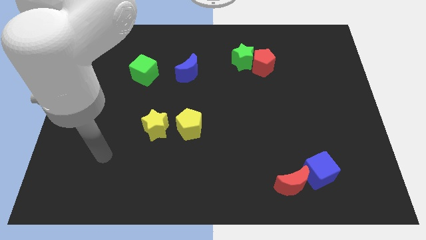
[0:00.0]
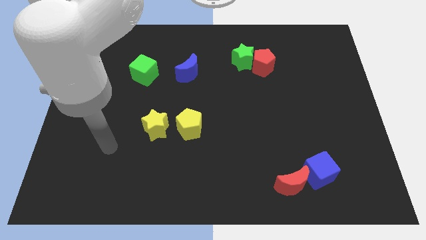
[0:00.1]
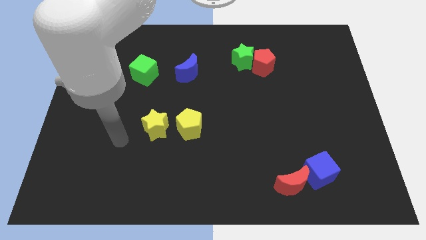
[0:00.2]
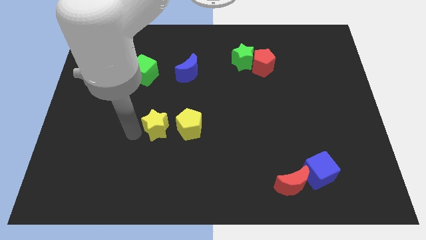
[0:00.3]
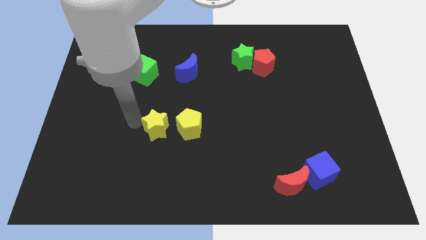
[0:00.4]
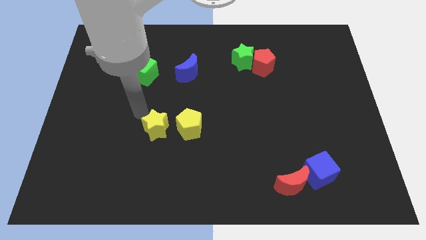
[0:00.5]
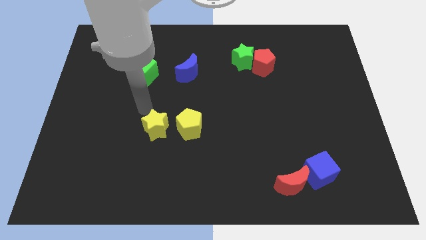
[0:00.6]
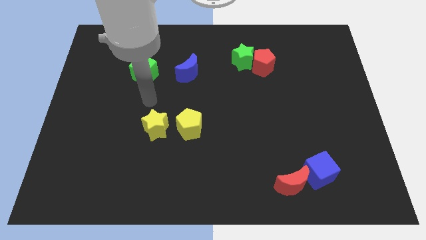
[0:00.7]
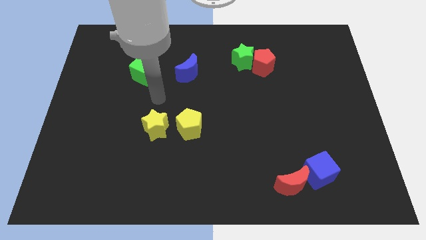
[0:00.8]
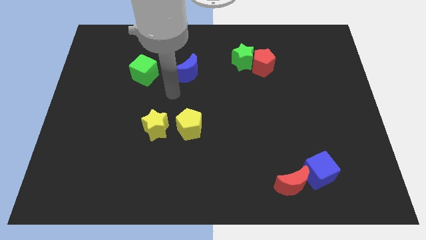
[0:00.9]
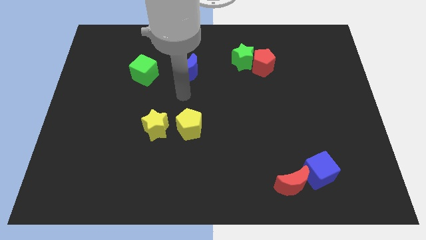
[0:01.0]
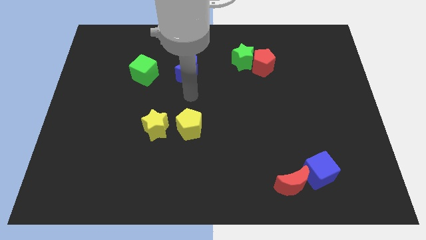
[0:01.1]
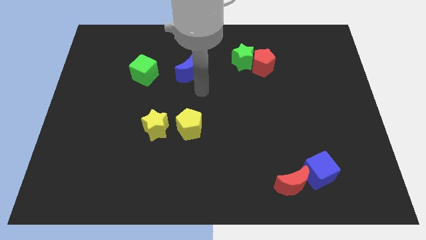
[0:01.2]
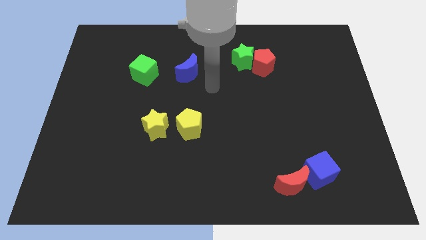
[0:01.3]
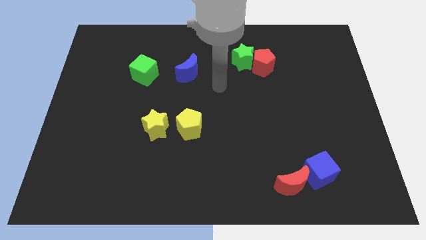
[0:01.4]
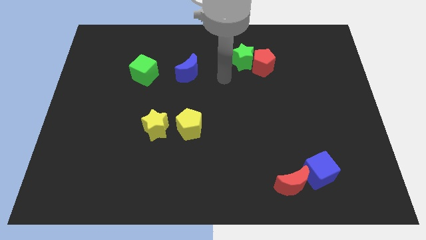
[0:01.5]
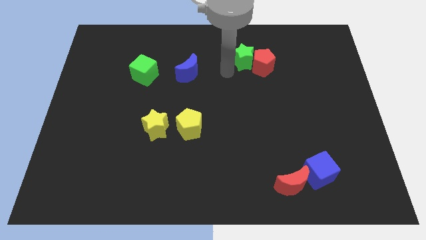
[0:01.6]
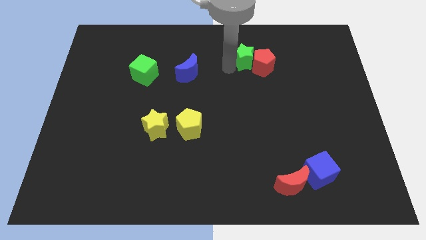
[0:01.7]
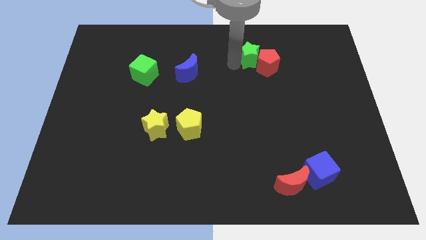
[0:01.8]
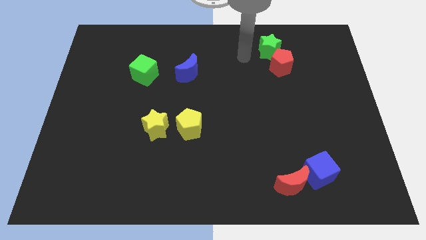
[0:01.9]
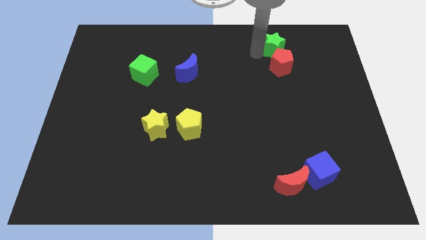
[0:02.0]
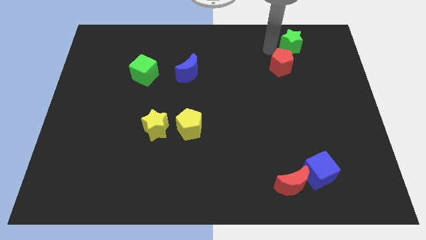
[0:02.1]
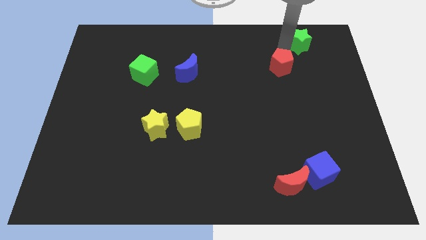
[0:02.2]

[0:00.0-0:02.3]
separate the red pentagon from the green star

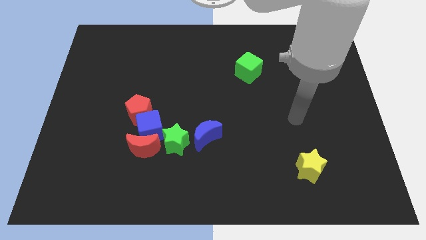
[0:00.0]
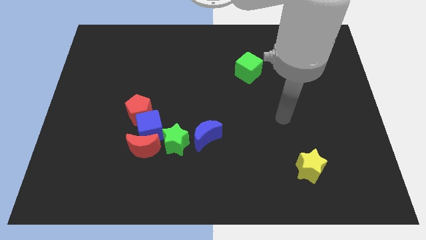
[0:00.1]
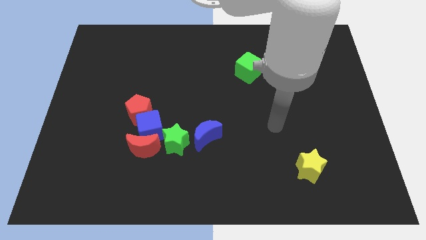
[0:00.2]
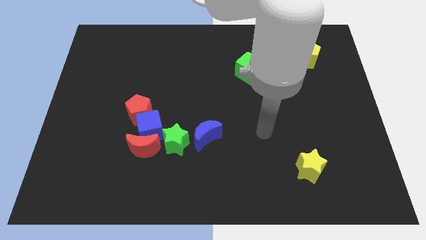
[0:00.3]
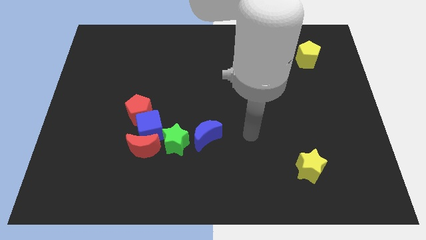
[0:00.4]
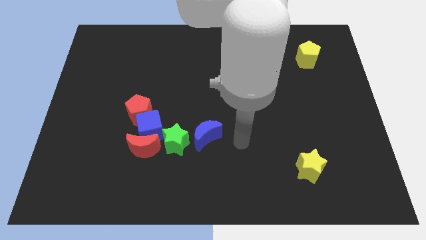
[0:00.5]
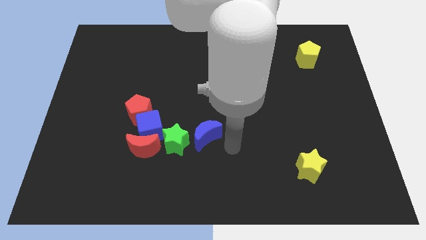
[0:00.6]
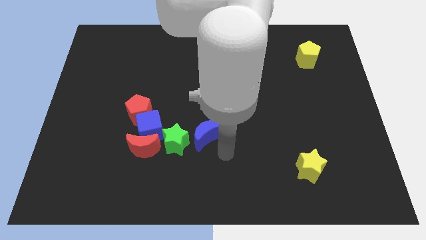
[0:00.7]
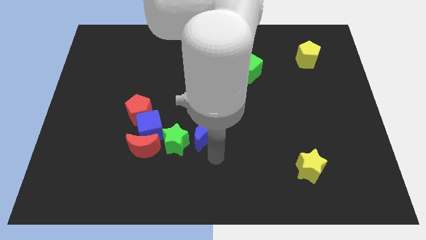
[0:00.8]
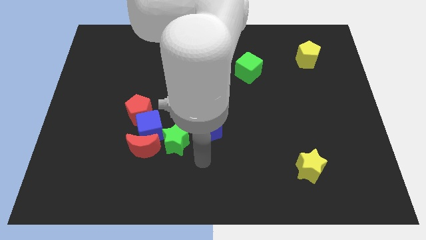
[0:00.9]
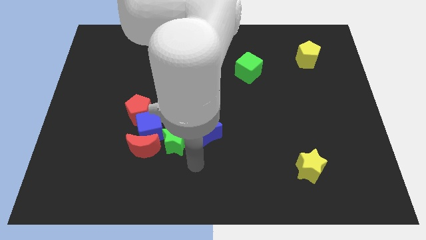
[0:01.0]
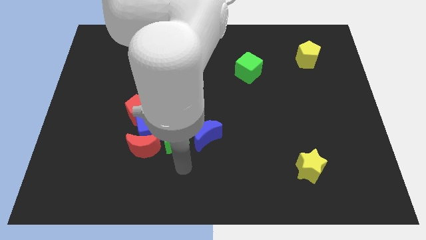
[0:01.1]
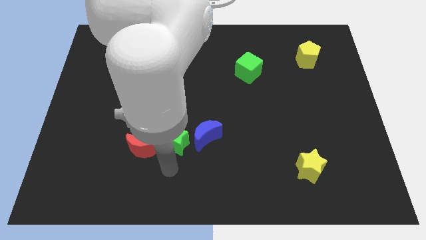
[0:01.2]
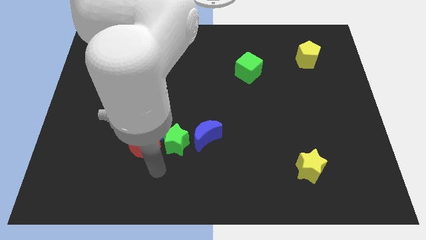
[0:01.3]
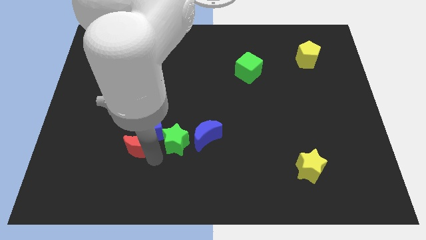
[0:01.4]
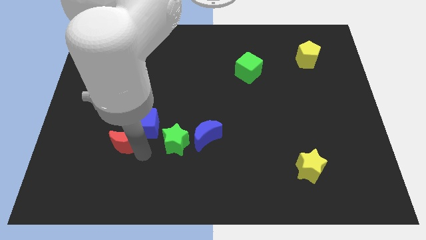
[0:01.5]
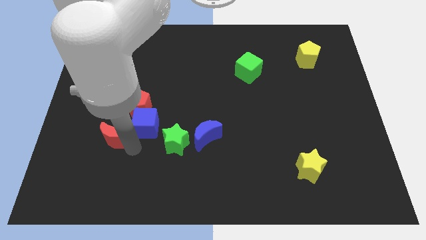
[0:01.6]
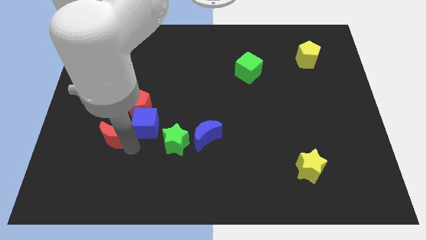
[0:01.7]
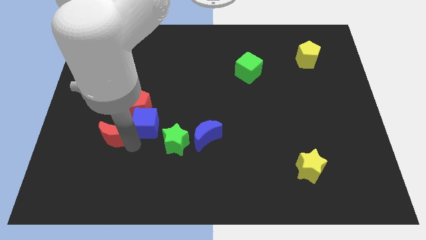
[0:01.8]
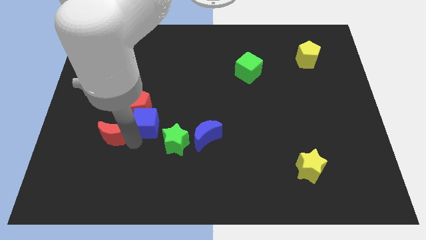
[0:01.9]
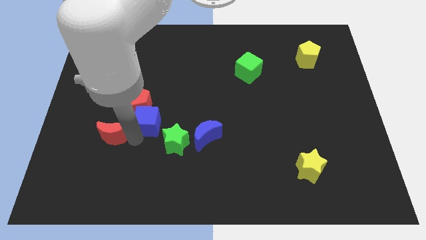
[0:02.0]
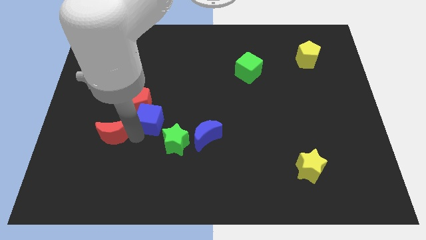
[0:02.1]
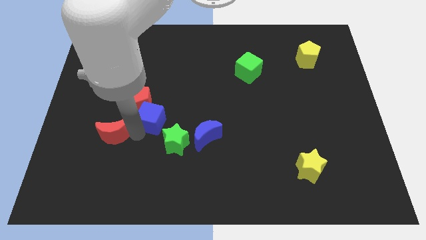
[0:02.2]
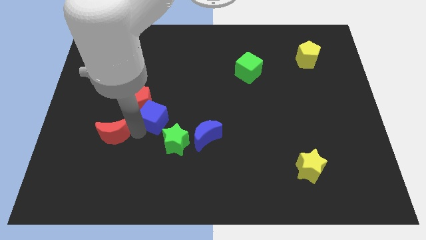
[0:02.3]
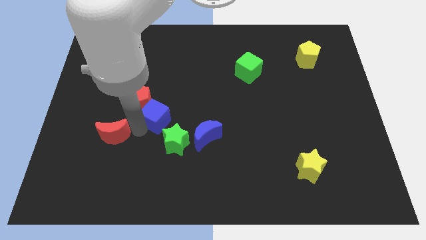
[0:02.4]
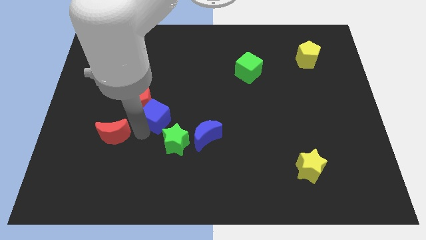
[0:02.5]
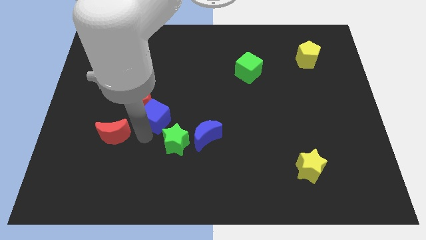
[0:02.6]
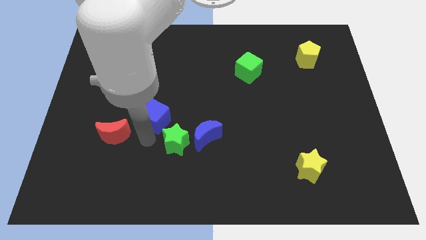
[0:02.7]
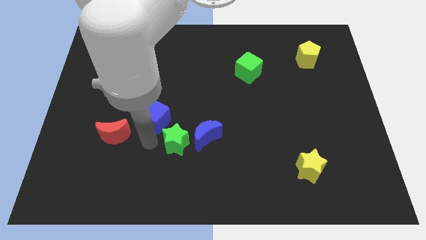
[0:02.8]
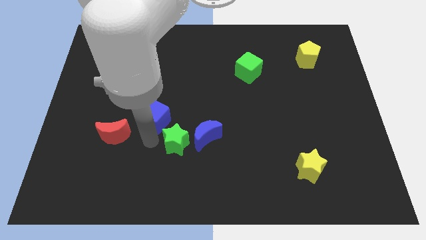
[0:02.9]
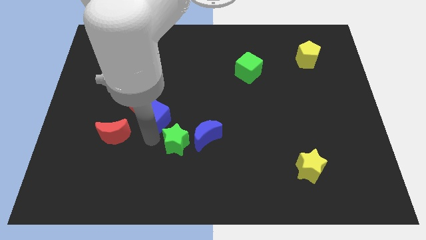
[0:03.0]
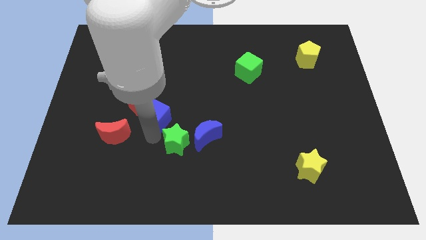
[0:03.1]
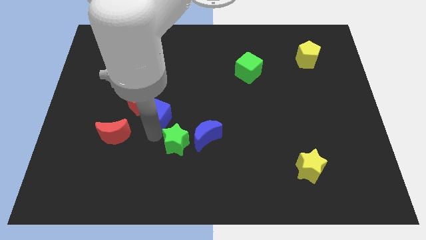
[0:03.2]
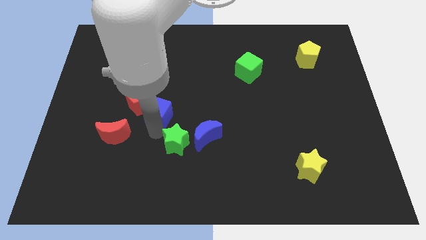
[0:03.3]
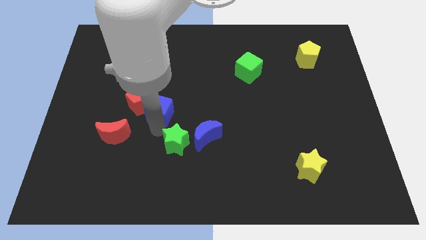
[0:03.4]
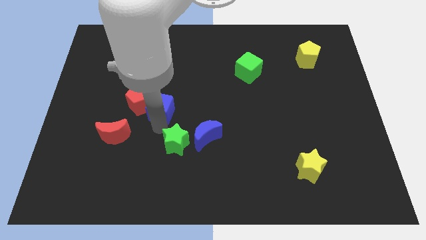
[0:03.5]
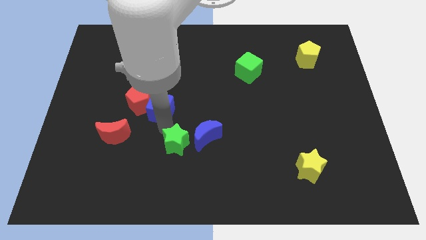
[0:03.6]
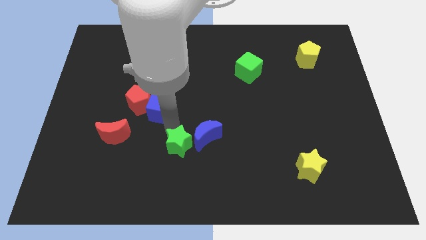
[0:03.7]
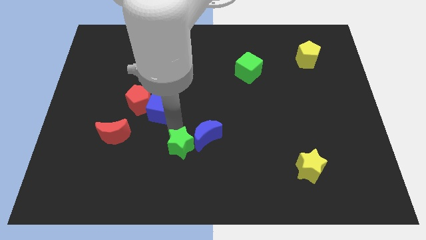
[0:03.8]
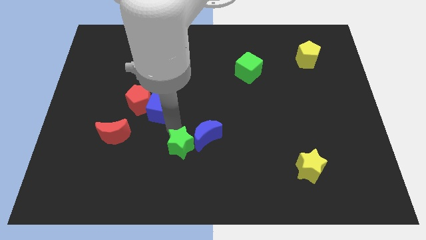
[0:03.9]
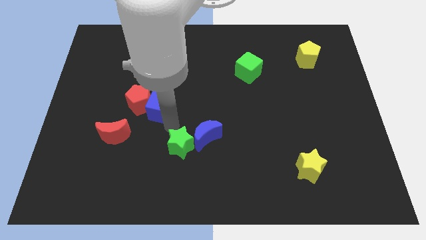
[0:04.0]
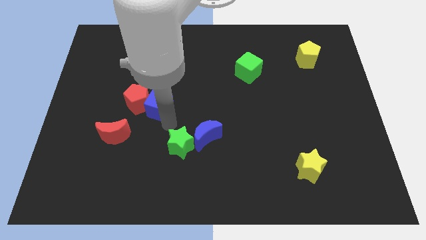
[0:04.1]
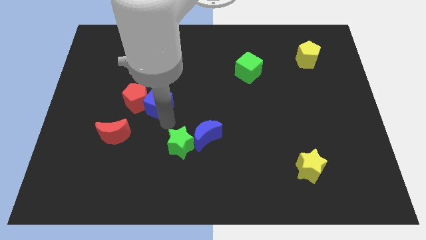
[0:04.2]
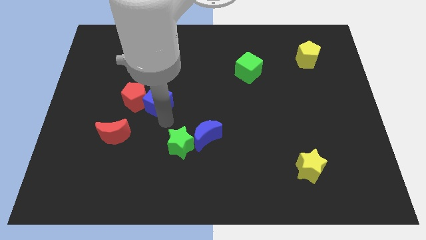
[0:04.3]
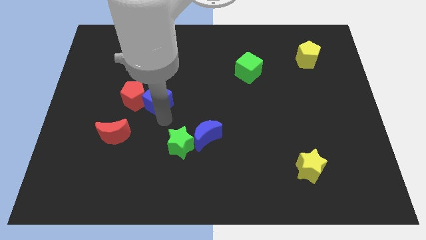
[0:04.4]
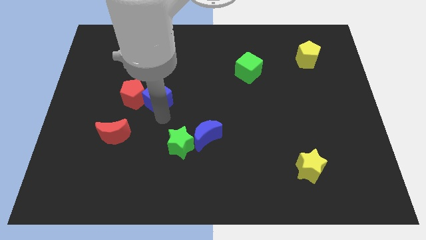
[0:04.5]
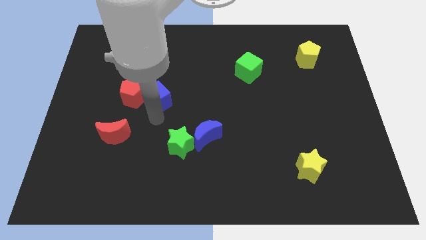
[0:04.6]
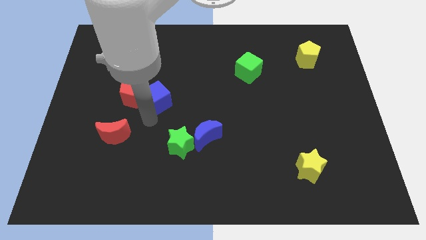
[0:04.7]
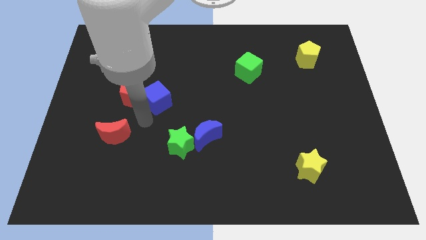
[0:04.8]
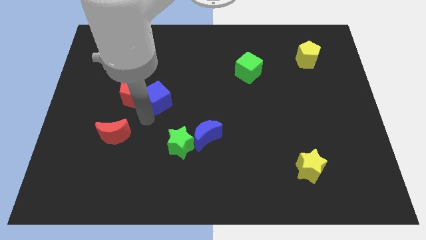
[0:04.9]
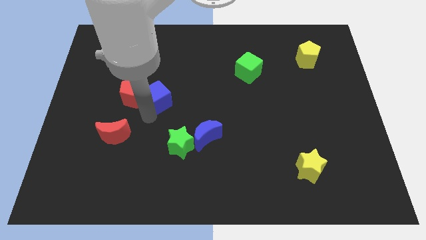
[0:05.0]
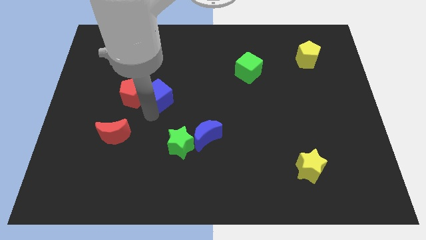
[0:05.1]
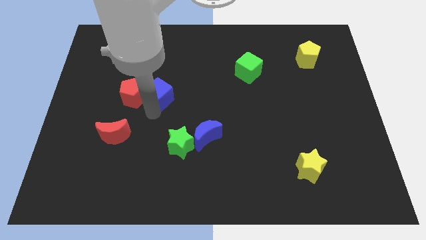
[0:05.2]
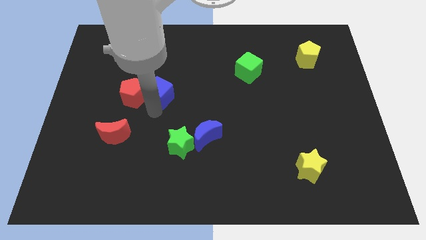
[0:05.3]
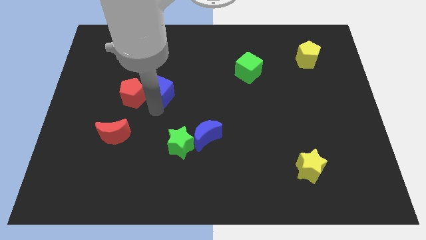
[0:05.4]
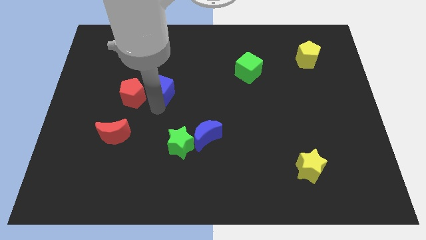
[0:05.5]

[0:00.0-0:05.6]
move the blue cube away from the group

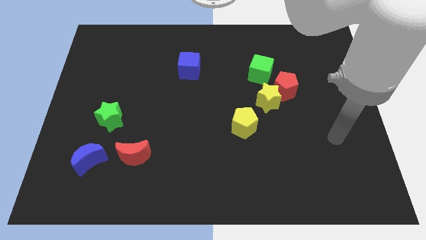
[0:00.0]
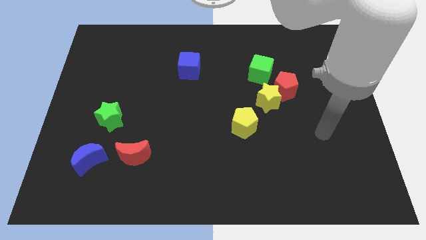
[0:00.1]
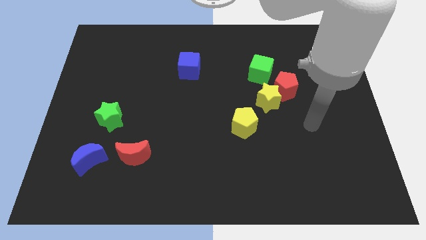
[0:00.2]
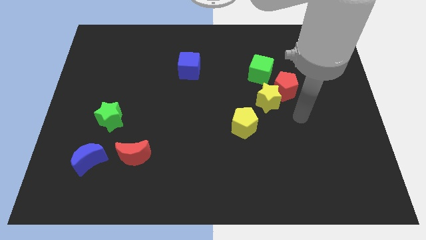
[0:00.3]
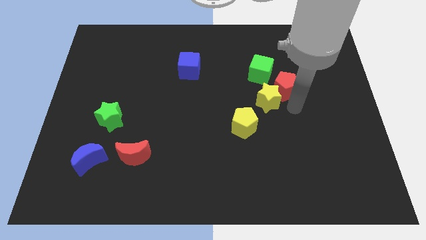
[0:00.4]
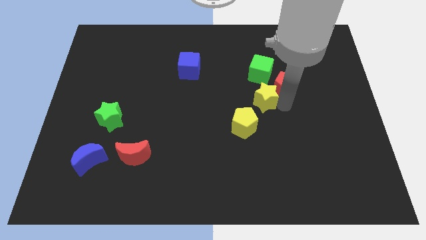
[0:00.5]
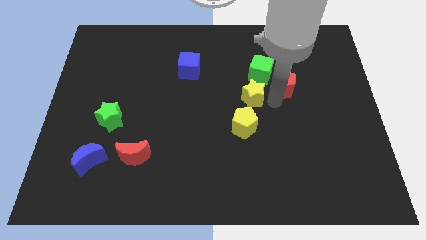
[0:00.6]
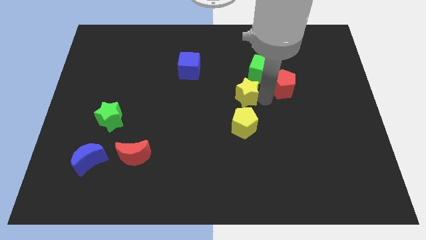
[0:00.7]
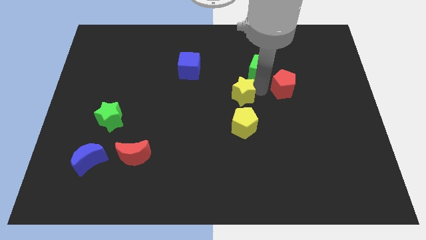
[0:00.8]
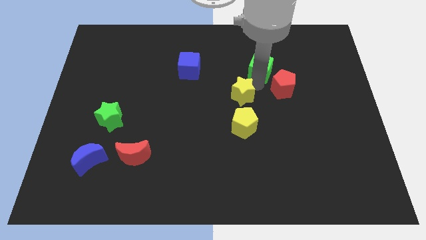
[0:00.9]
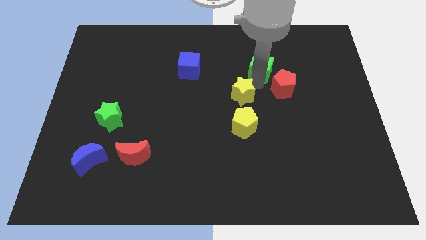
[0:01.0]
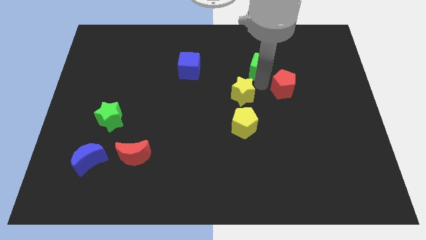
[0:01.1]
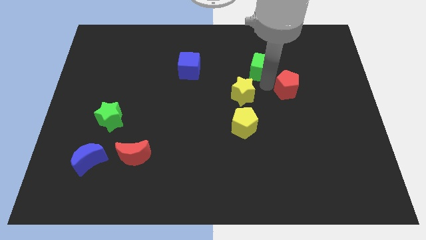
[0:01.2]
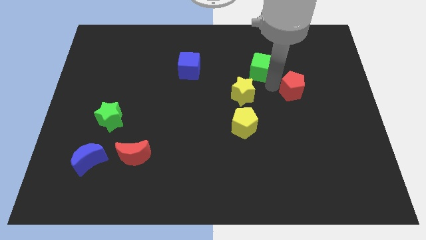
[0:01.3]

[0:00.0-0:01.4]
pull the red pentagon apart from the yellow star and green cube
